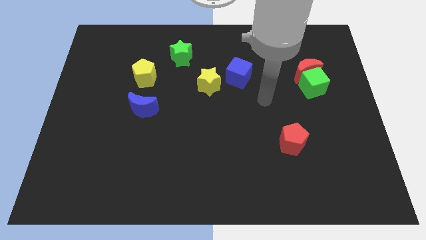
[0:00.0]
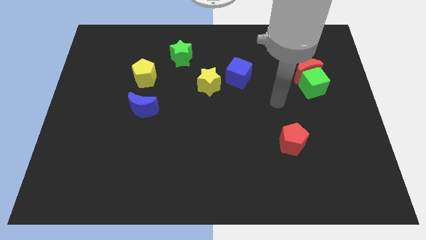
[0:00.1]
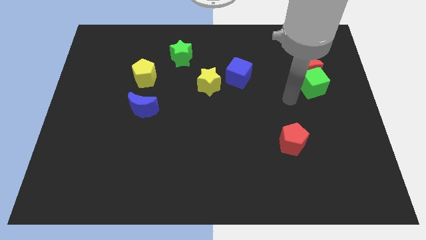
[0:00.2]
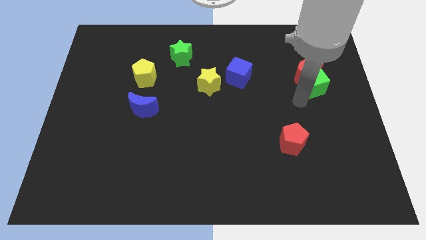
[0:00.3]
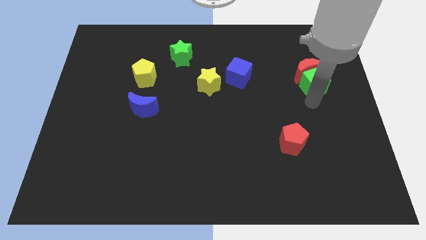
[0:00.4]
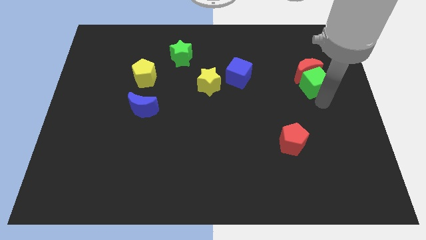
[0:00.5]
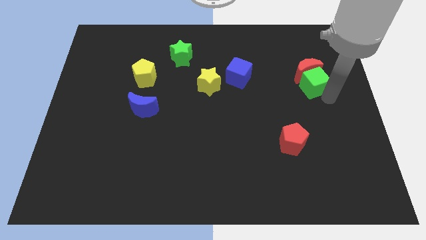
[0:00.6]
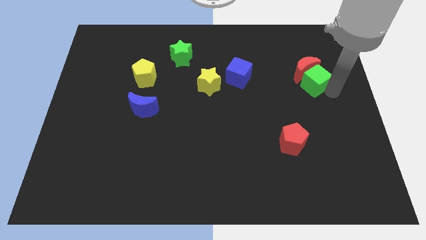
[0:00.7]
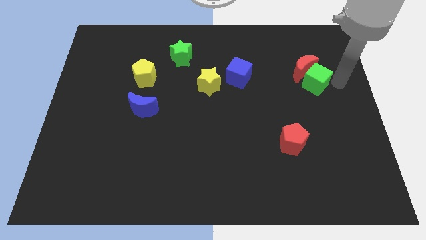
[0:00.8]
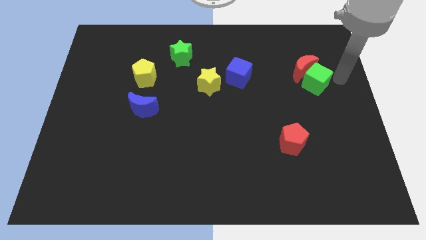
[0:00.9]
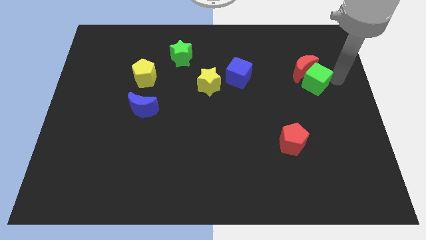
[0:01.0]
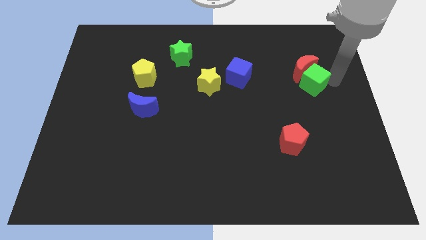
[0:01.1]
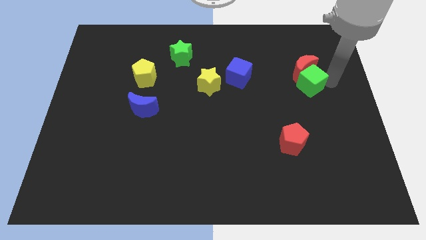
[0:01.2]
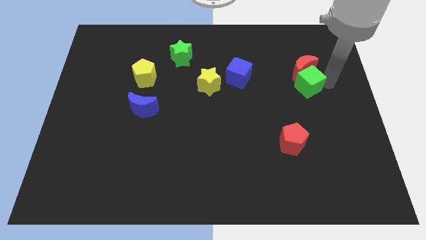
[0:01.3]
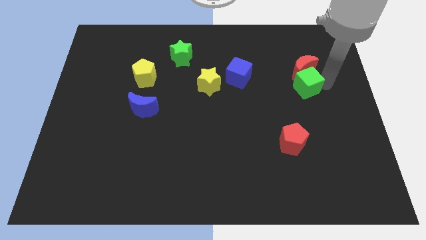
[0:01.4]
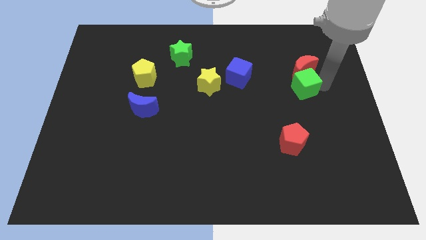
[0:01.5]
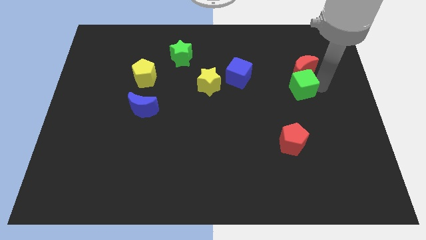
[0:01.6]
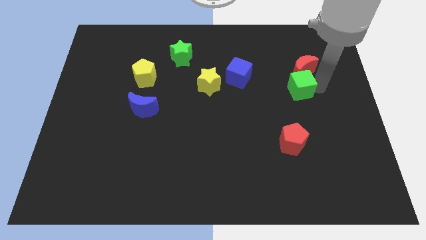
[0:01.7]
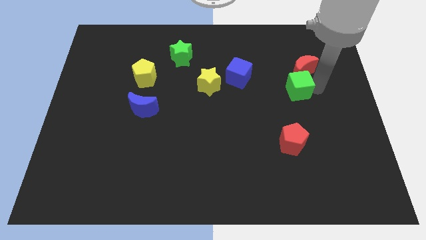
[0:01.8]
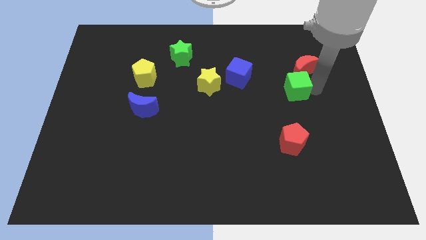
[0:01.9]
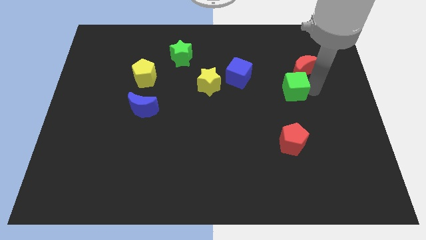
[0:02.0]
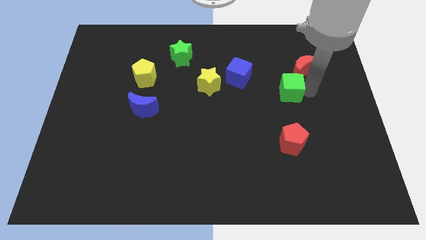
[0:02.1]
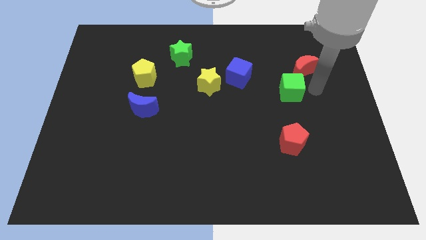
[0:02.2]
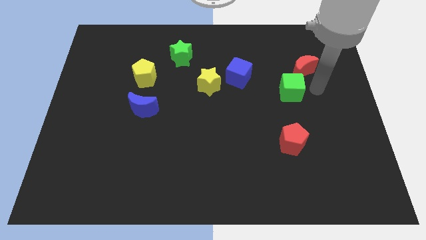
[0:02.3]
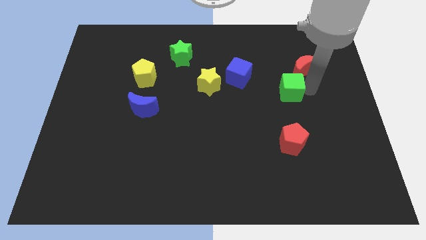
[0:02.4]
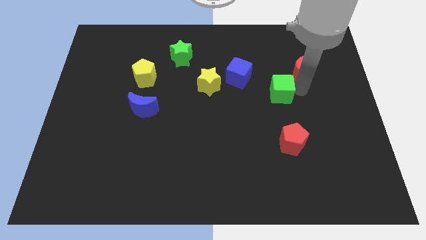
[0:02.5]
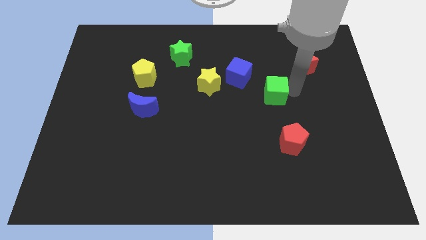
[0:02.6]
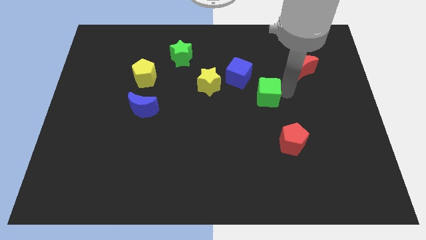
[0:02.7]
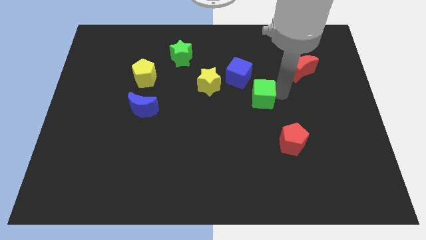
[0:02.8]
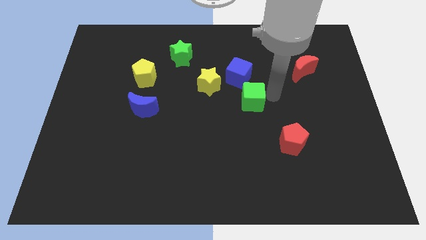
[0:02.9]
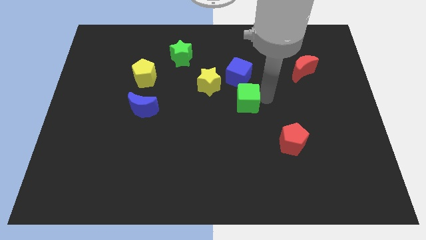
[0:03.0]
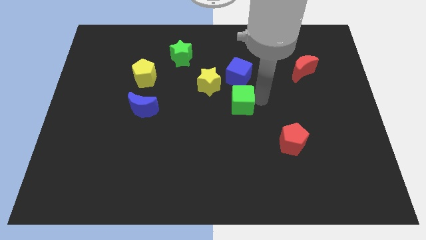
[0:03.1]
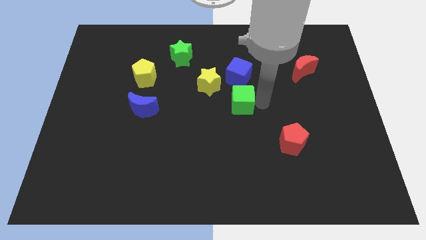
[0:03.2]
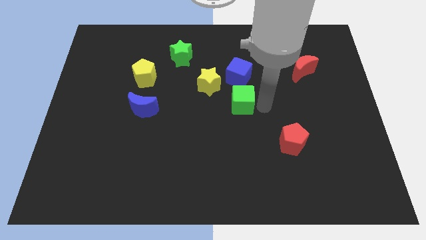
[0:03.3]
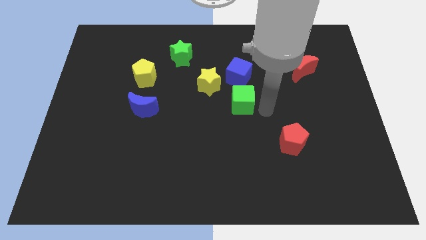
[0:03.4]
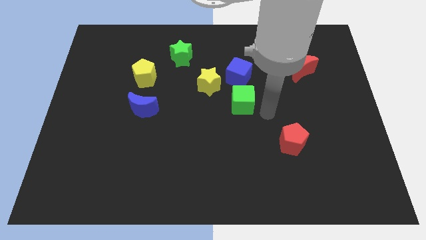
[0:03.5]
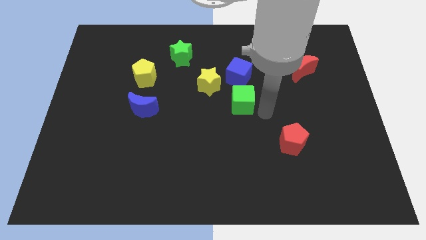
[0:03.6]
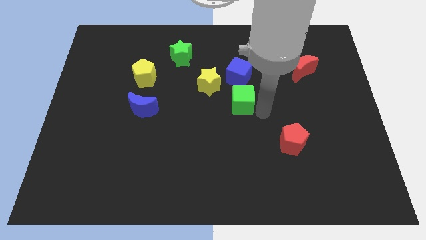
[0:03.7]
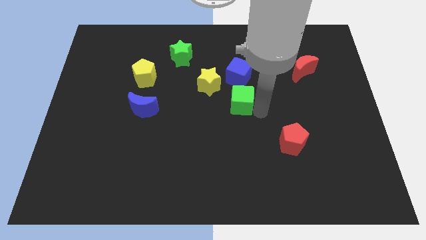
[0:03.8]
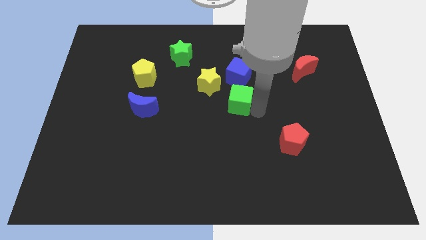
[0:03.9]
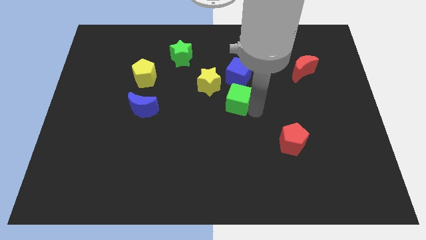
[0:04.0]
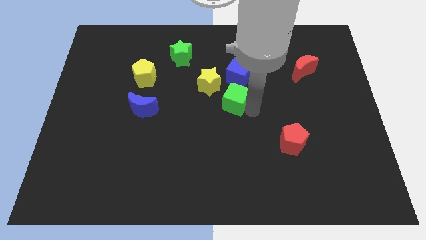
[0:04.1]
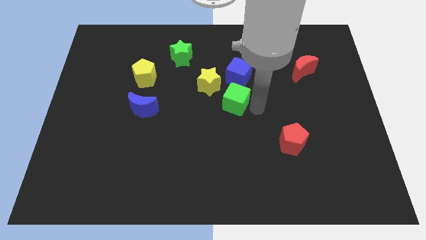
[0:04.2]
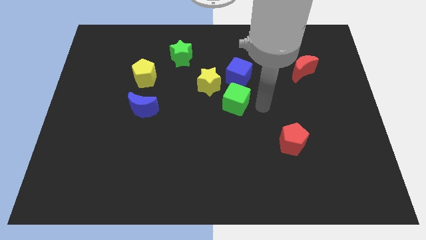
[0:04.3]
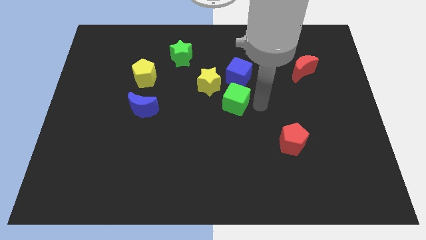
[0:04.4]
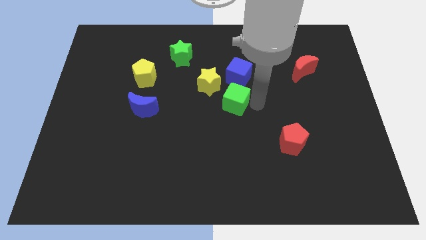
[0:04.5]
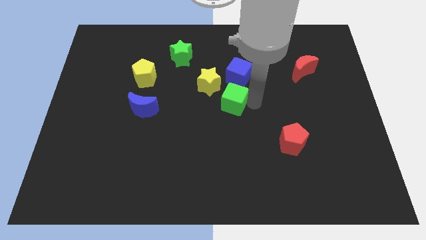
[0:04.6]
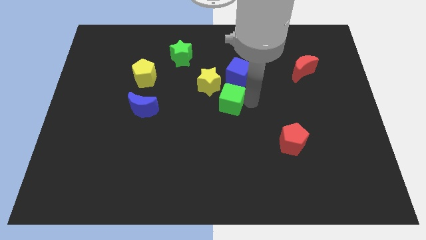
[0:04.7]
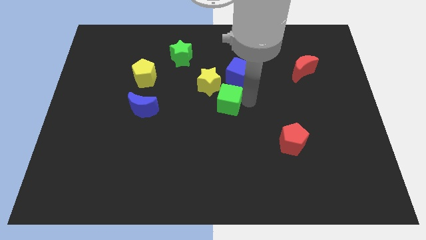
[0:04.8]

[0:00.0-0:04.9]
move the green cube left

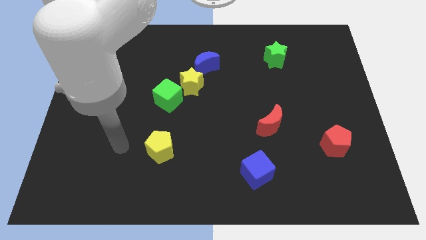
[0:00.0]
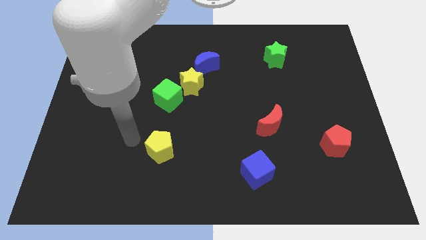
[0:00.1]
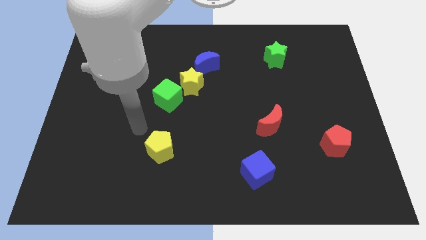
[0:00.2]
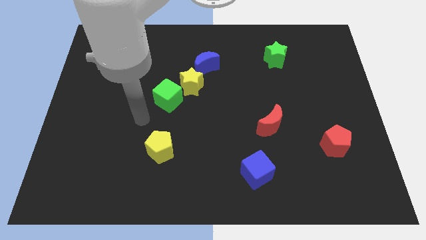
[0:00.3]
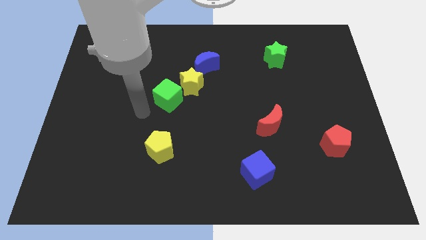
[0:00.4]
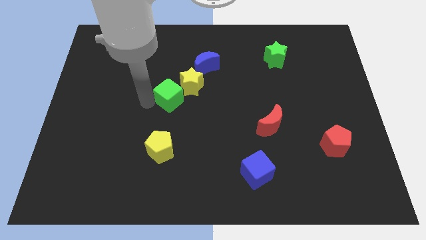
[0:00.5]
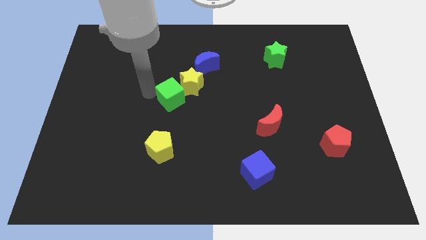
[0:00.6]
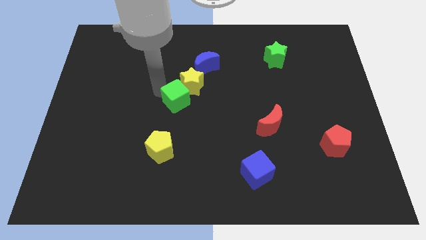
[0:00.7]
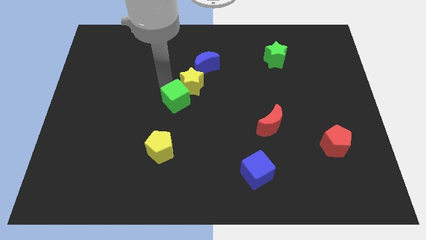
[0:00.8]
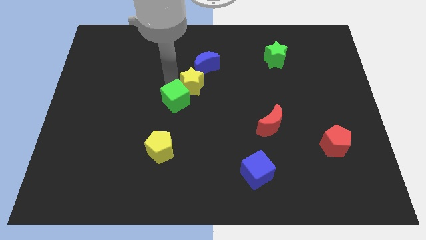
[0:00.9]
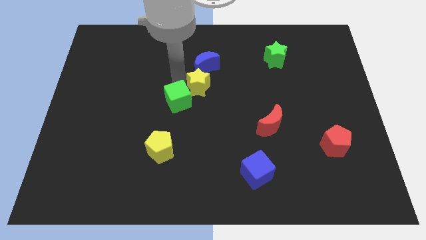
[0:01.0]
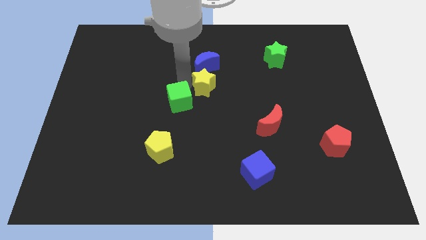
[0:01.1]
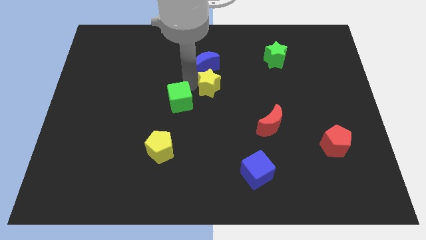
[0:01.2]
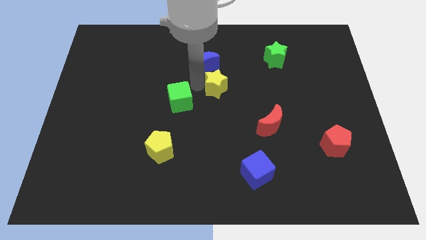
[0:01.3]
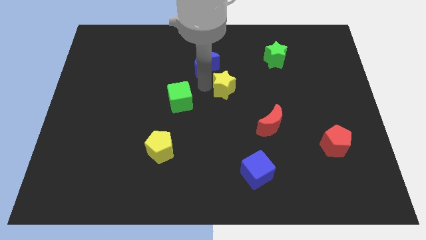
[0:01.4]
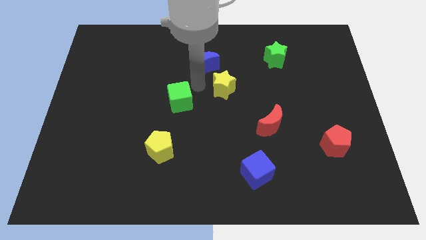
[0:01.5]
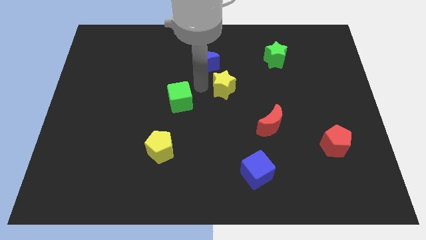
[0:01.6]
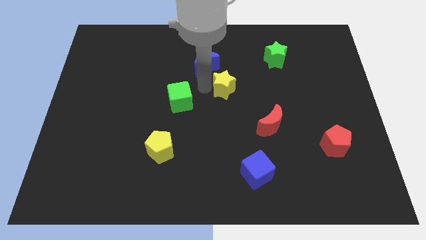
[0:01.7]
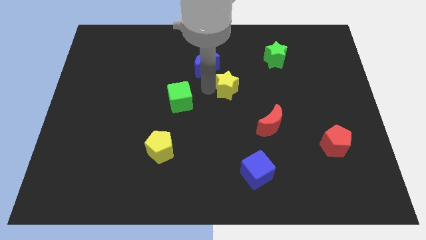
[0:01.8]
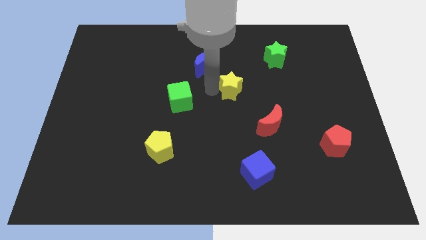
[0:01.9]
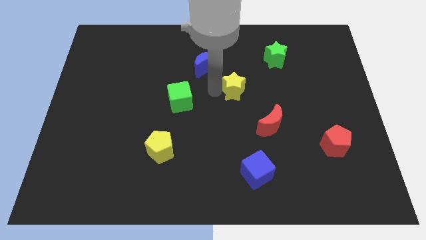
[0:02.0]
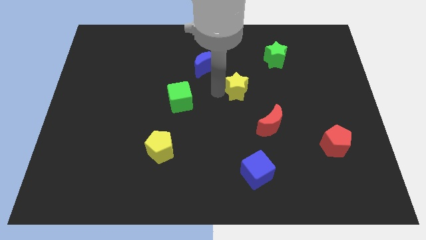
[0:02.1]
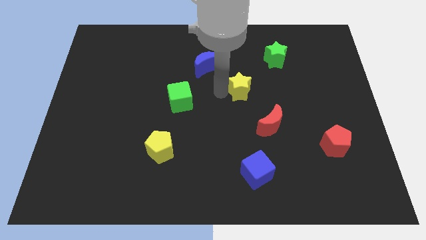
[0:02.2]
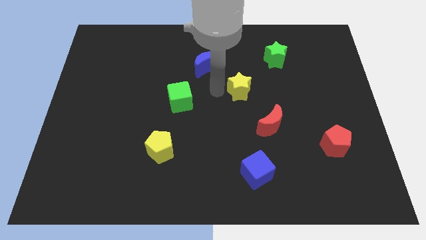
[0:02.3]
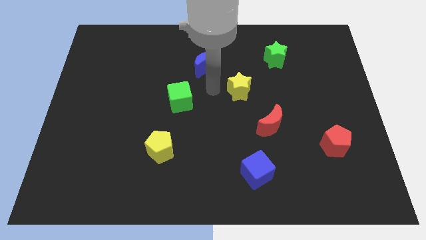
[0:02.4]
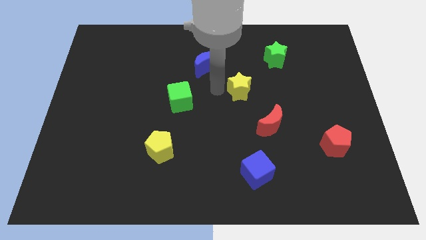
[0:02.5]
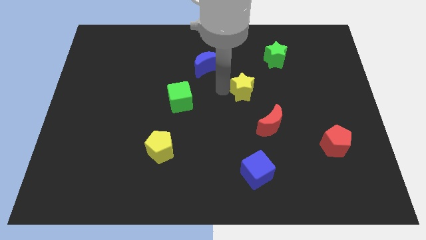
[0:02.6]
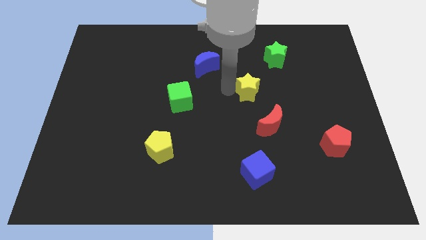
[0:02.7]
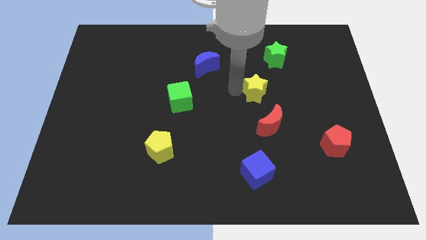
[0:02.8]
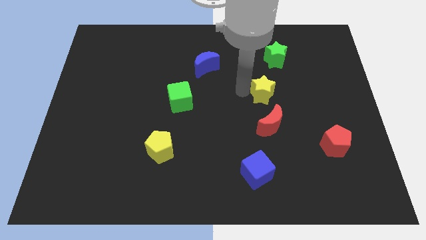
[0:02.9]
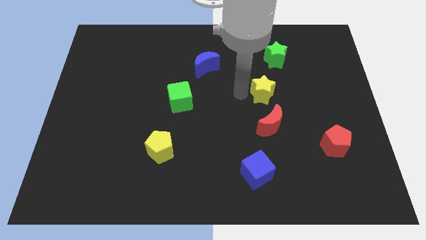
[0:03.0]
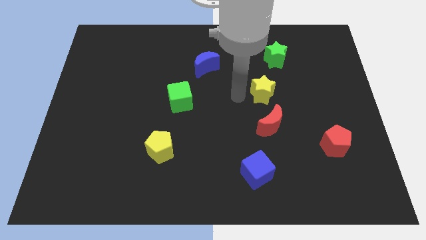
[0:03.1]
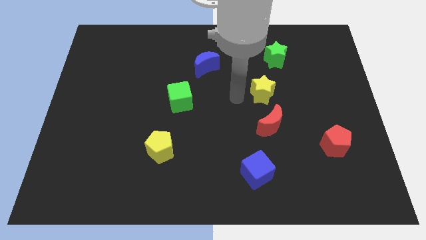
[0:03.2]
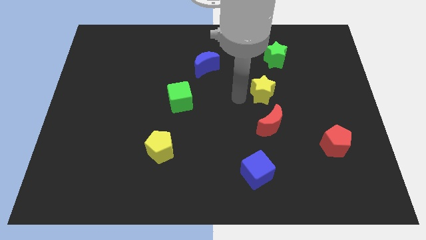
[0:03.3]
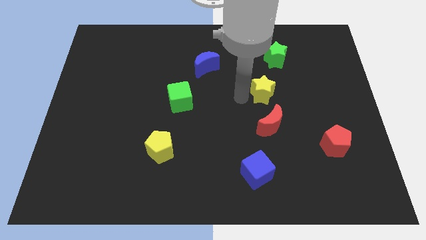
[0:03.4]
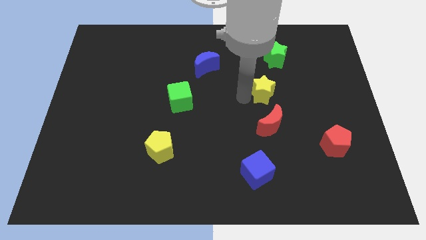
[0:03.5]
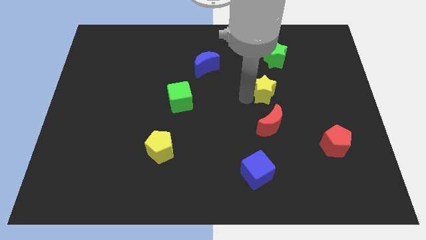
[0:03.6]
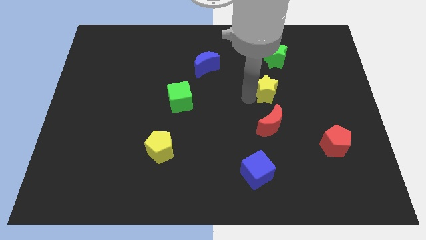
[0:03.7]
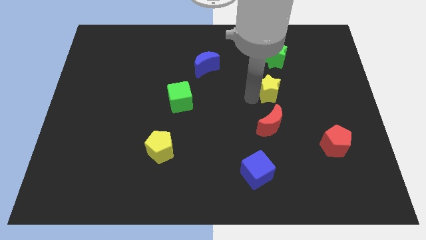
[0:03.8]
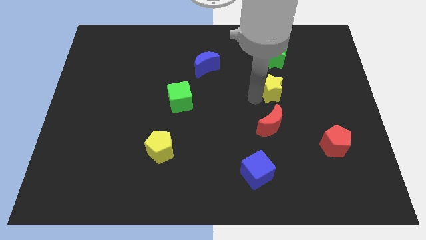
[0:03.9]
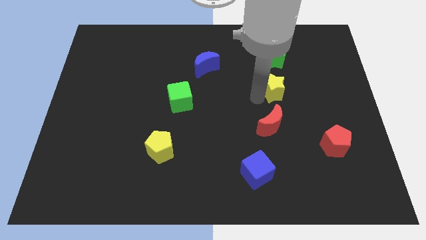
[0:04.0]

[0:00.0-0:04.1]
push the yellow star to the right
